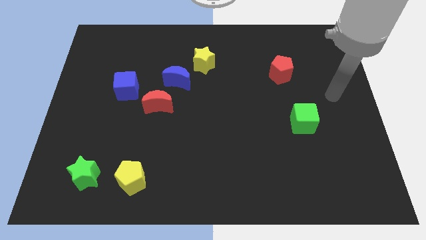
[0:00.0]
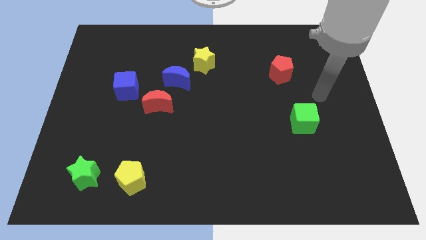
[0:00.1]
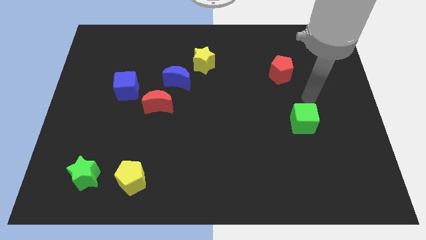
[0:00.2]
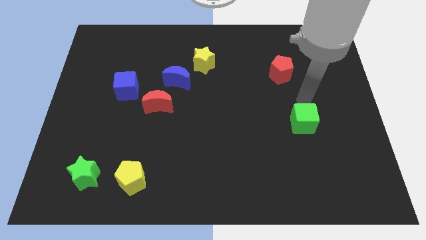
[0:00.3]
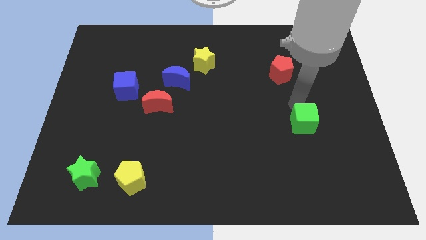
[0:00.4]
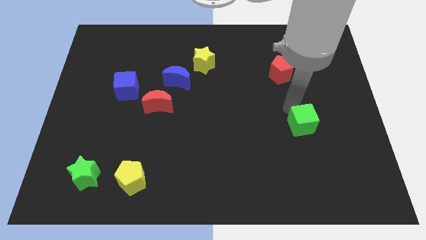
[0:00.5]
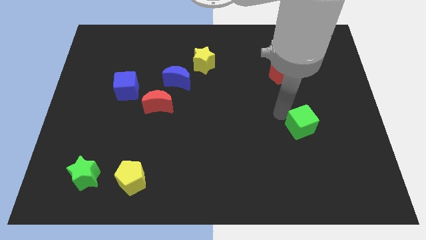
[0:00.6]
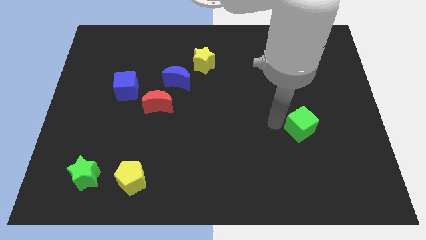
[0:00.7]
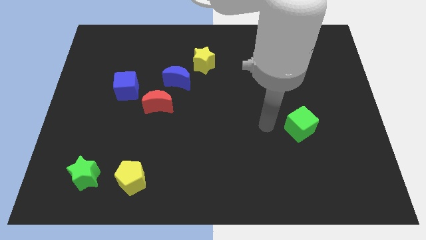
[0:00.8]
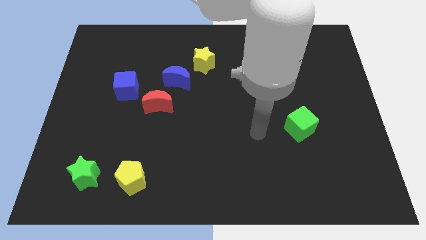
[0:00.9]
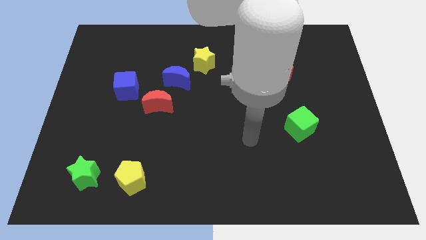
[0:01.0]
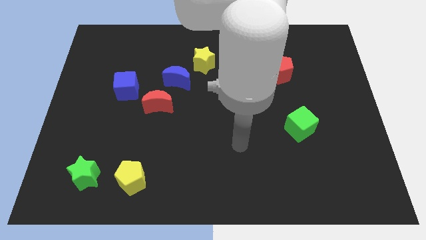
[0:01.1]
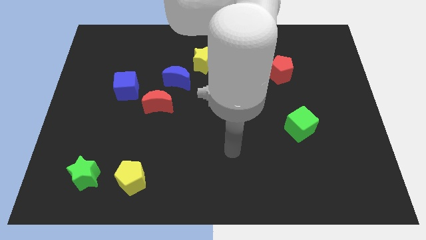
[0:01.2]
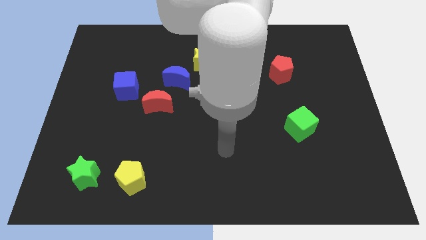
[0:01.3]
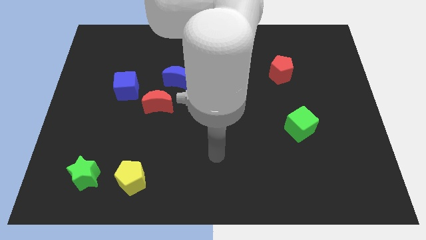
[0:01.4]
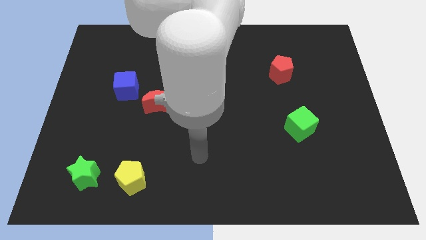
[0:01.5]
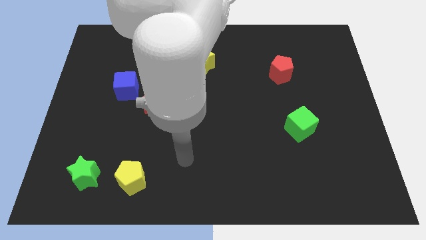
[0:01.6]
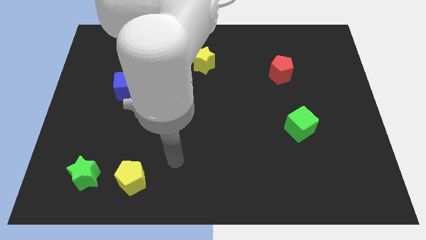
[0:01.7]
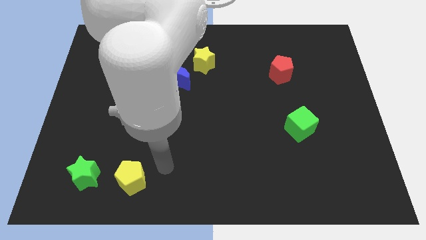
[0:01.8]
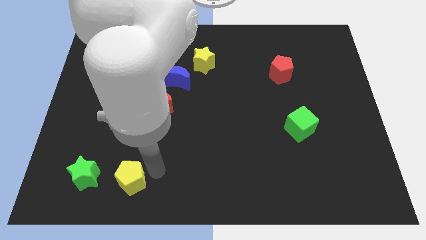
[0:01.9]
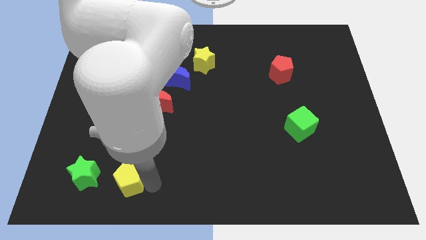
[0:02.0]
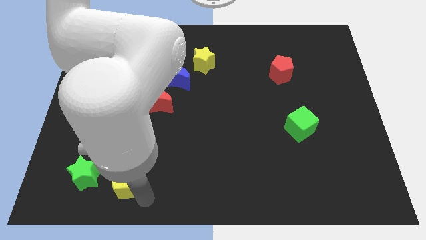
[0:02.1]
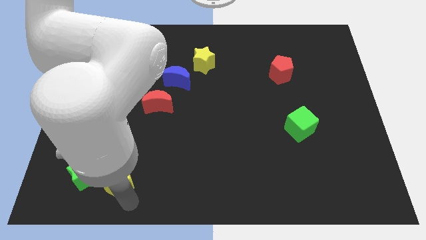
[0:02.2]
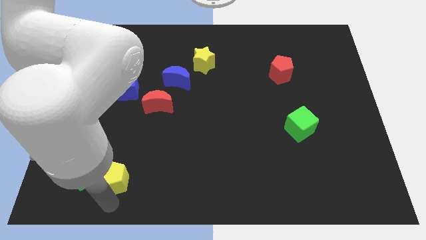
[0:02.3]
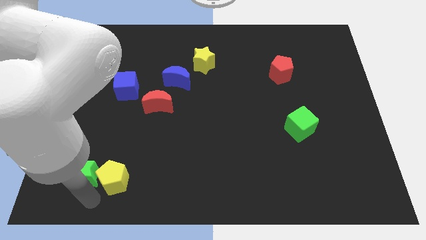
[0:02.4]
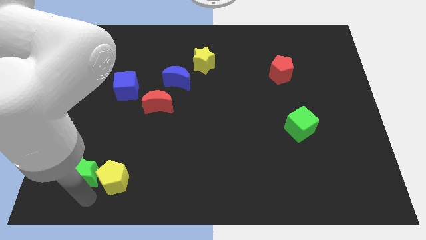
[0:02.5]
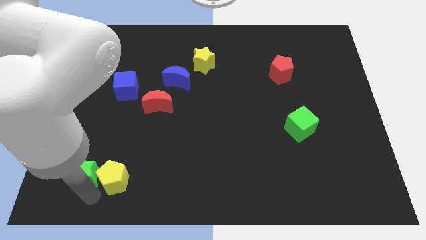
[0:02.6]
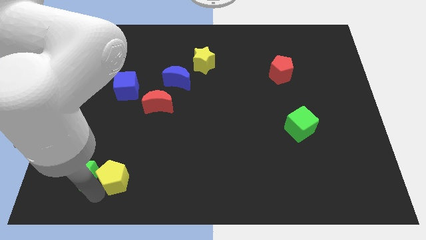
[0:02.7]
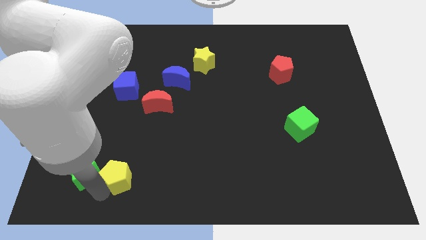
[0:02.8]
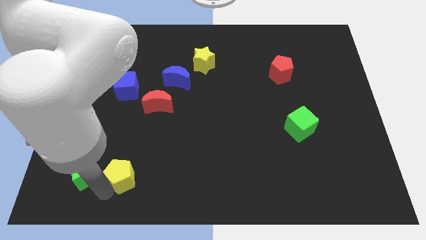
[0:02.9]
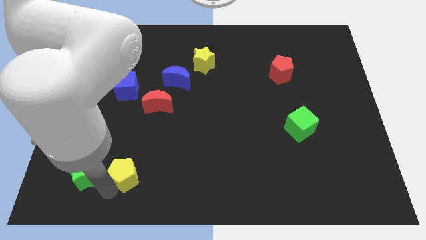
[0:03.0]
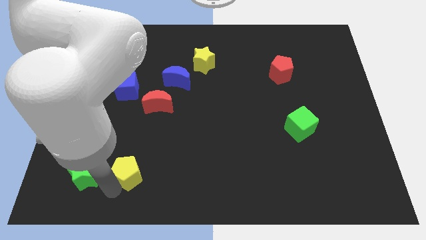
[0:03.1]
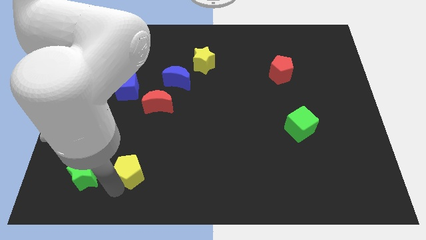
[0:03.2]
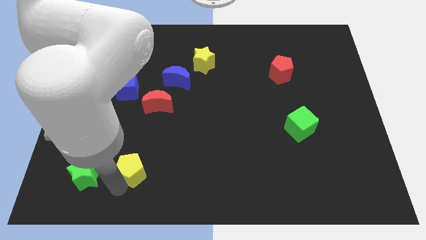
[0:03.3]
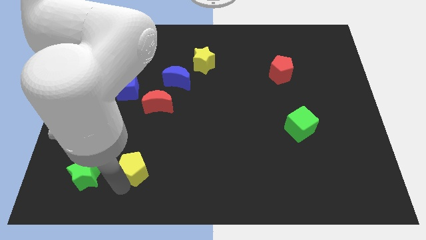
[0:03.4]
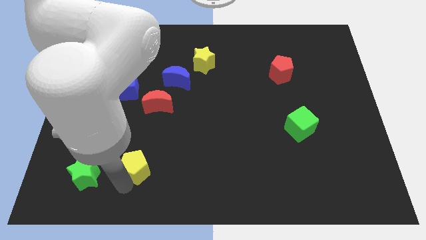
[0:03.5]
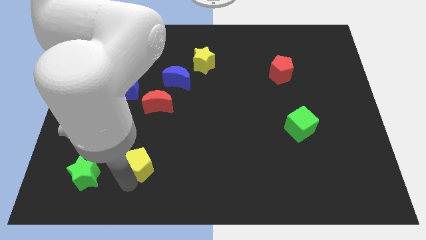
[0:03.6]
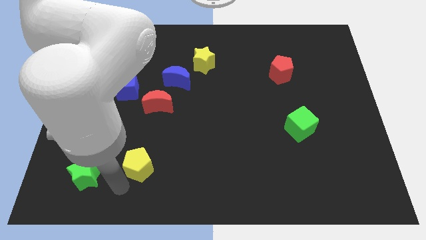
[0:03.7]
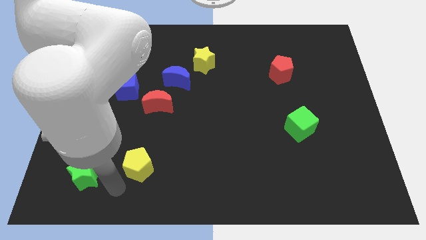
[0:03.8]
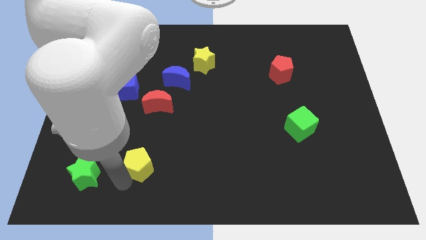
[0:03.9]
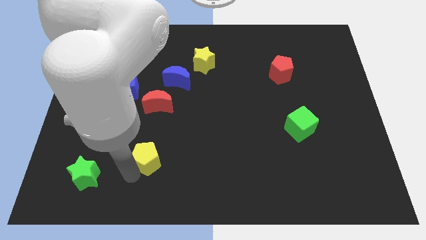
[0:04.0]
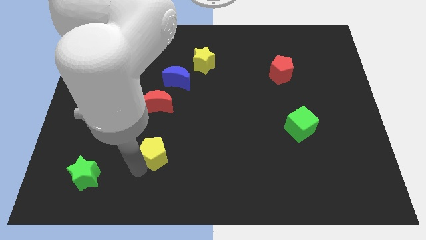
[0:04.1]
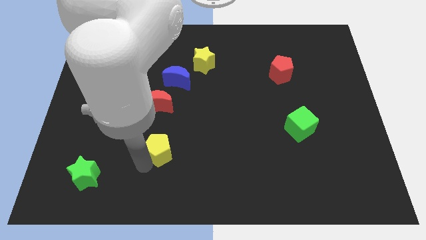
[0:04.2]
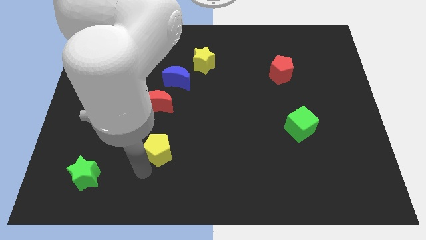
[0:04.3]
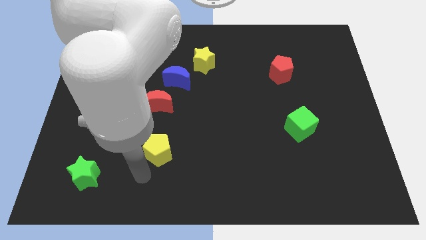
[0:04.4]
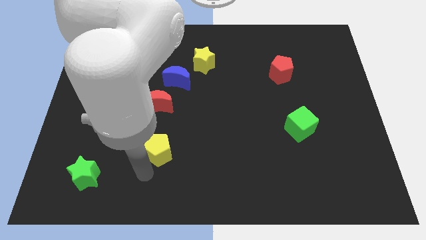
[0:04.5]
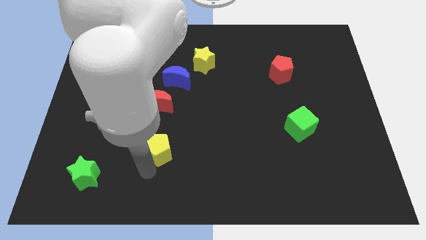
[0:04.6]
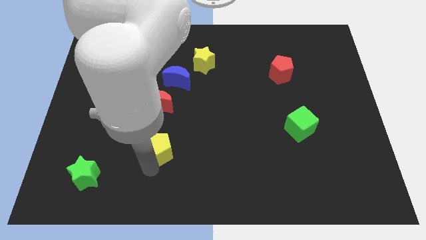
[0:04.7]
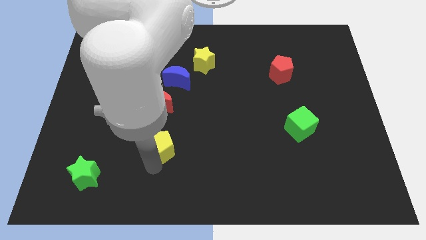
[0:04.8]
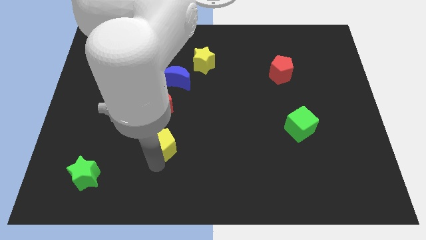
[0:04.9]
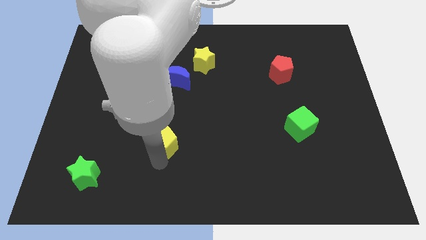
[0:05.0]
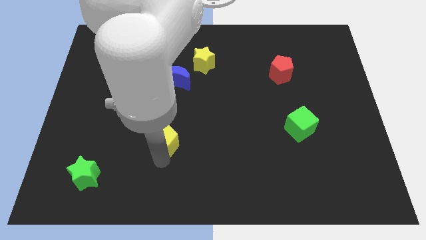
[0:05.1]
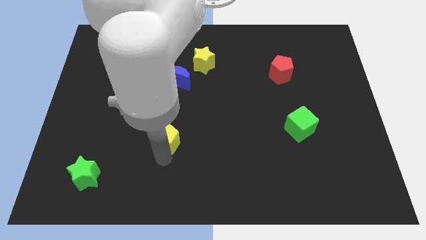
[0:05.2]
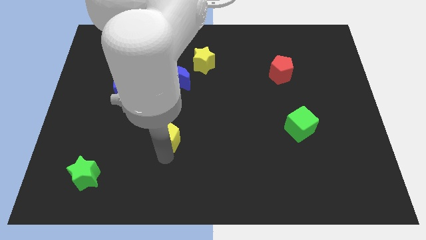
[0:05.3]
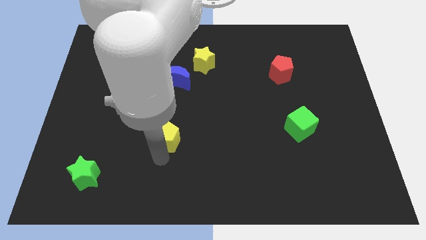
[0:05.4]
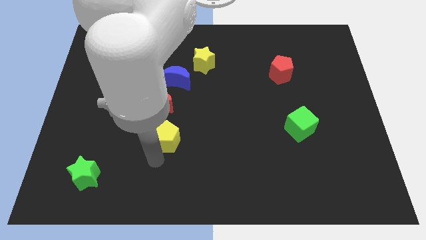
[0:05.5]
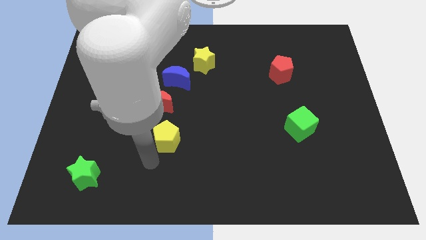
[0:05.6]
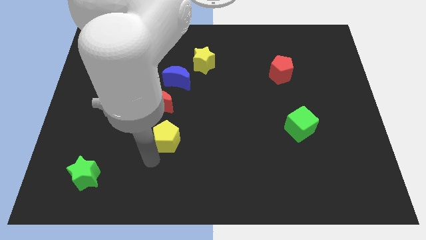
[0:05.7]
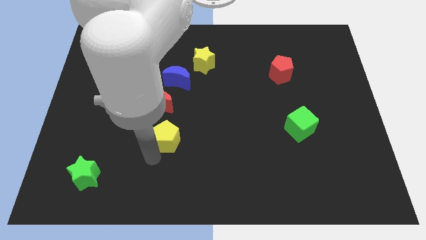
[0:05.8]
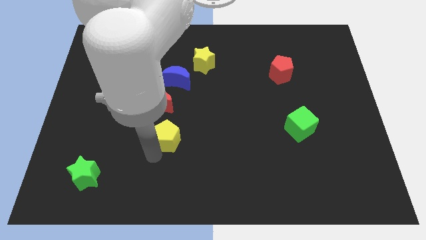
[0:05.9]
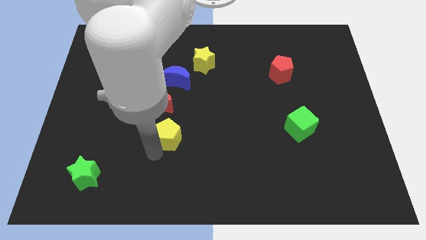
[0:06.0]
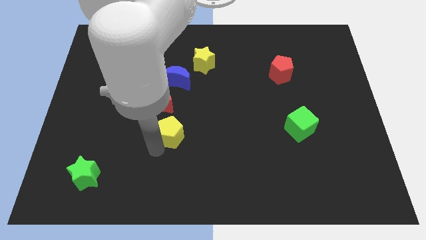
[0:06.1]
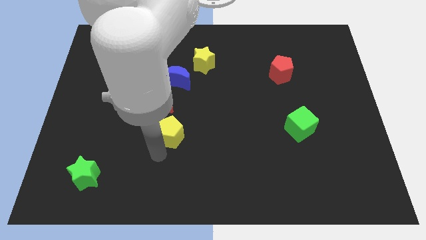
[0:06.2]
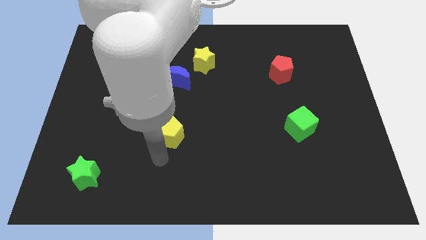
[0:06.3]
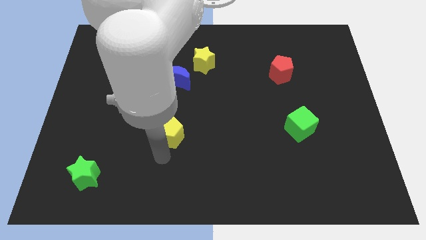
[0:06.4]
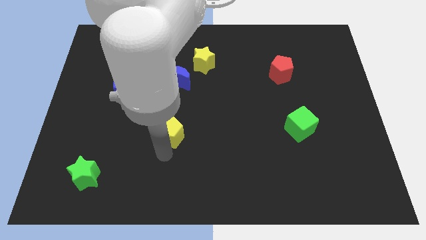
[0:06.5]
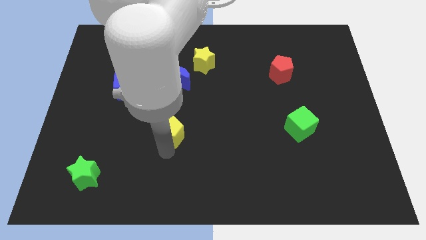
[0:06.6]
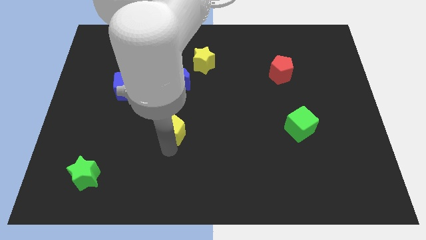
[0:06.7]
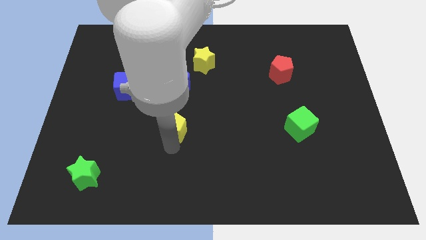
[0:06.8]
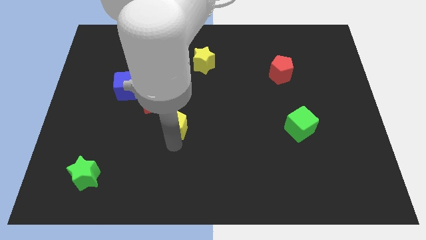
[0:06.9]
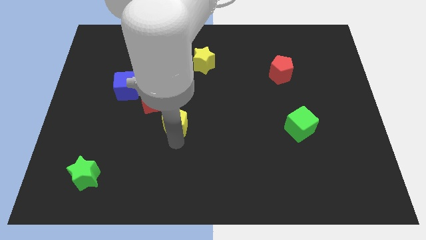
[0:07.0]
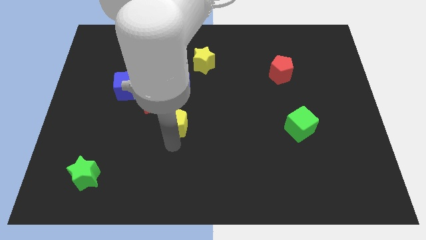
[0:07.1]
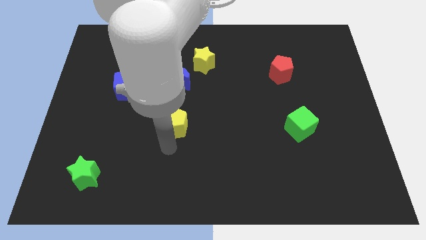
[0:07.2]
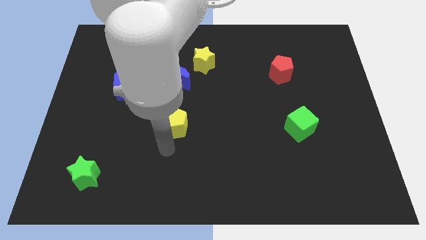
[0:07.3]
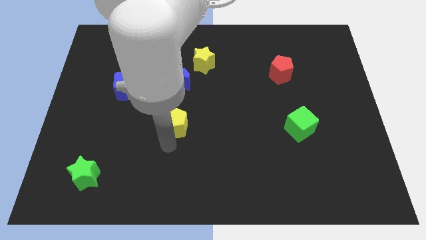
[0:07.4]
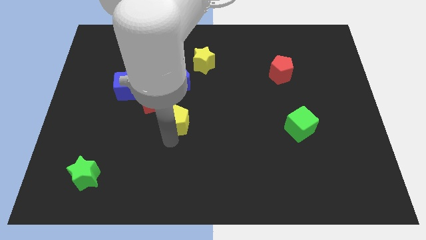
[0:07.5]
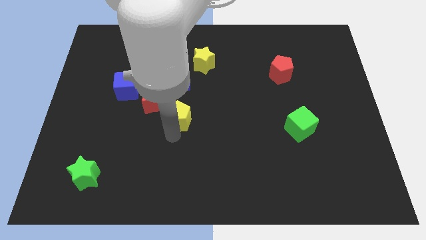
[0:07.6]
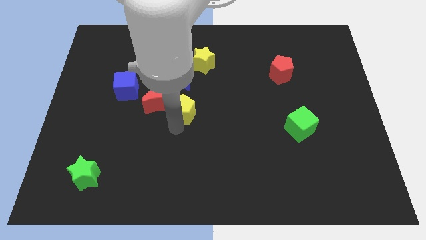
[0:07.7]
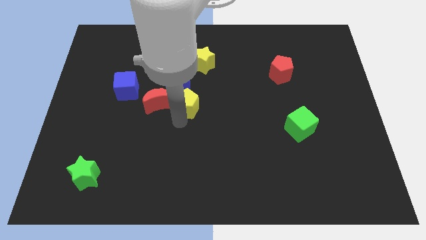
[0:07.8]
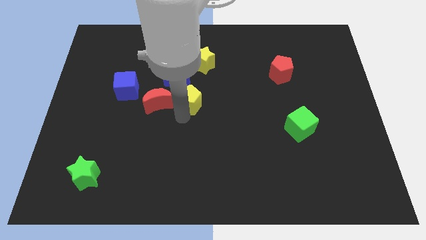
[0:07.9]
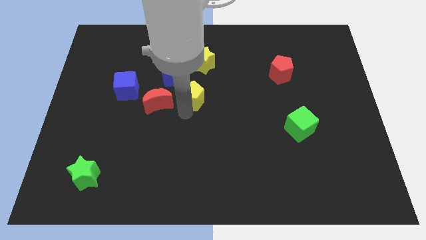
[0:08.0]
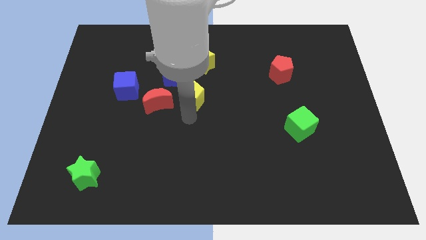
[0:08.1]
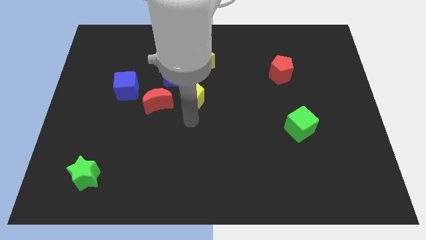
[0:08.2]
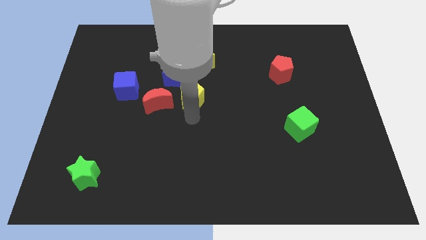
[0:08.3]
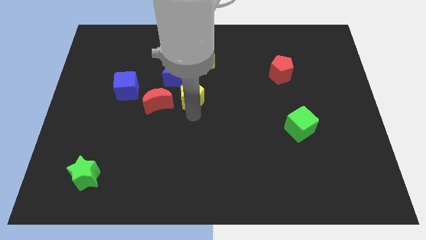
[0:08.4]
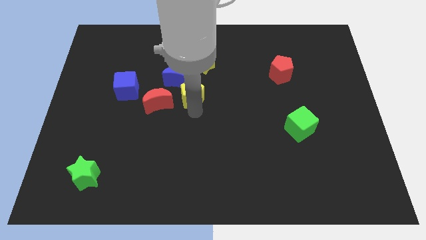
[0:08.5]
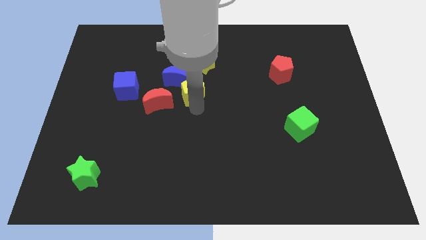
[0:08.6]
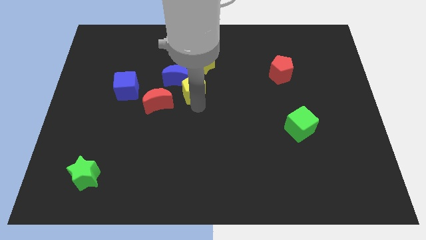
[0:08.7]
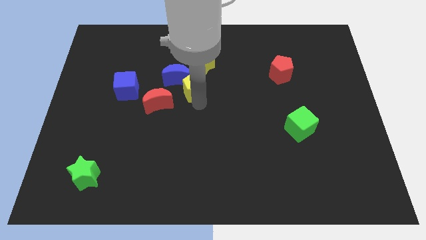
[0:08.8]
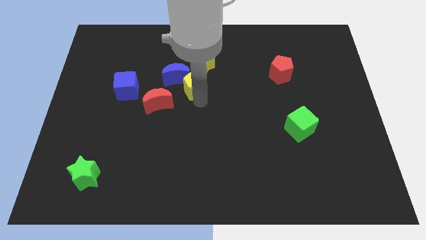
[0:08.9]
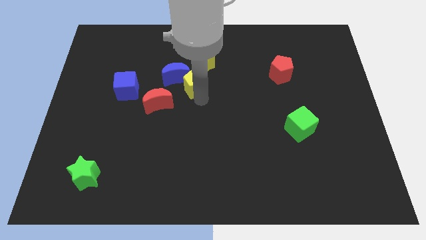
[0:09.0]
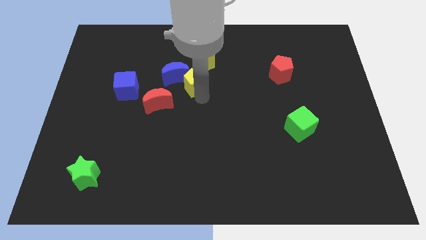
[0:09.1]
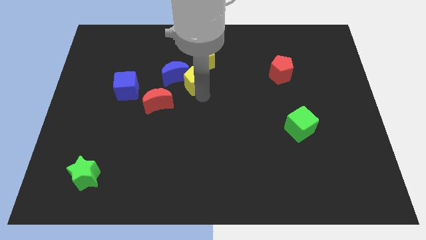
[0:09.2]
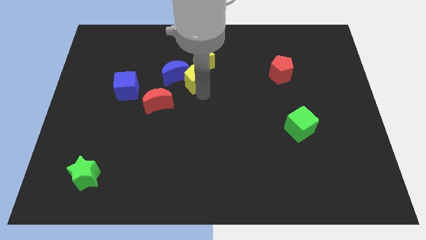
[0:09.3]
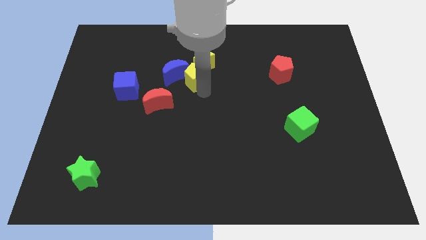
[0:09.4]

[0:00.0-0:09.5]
put the yellow pentagon towards the yellow star
